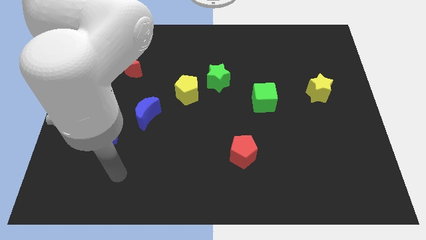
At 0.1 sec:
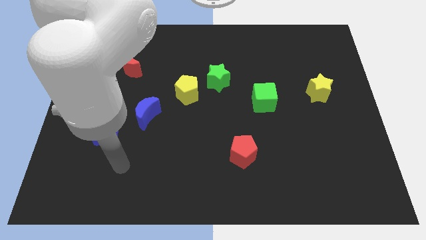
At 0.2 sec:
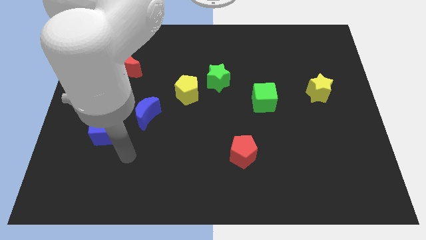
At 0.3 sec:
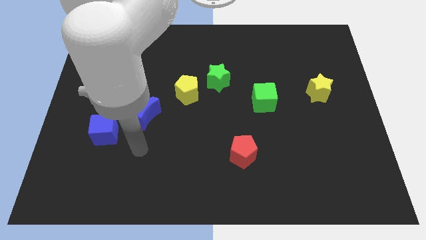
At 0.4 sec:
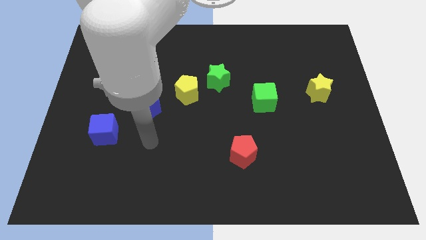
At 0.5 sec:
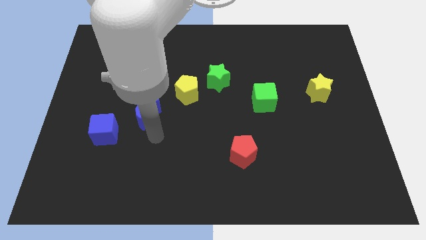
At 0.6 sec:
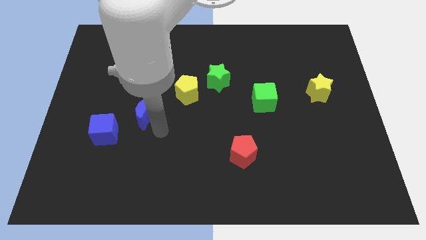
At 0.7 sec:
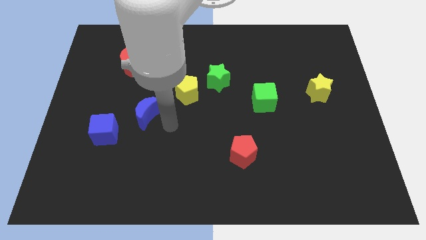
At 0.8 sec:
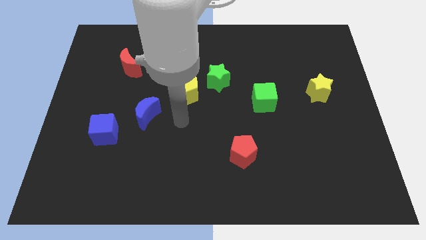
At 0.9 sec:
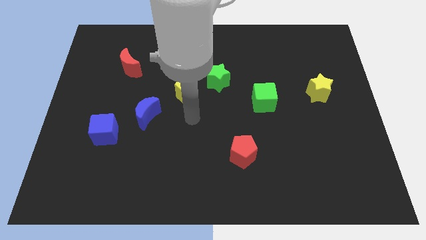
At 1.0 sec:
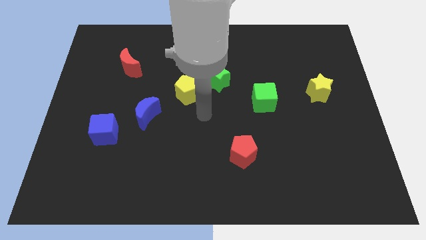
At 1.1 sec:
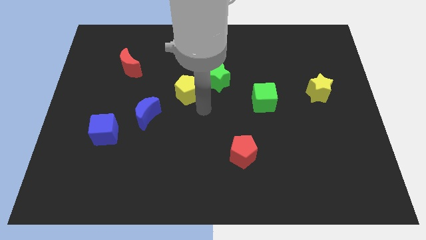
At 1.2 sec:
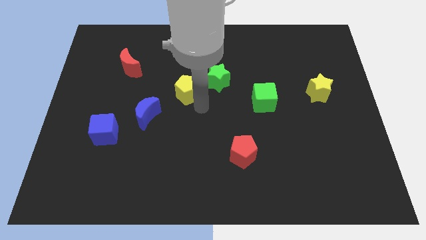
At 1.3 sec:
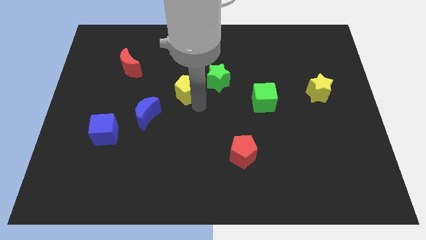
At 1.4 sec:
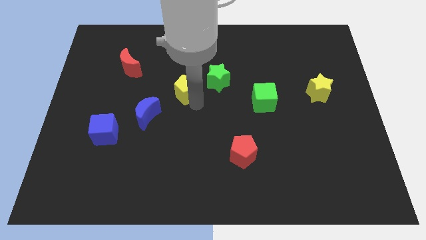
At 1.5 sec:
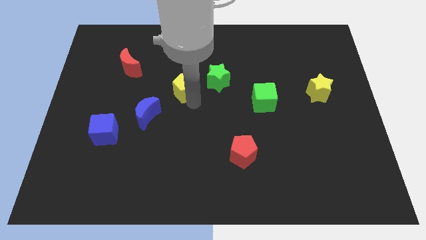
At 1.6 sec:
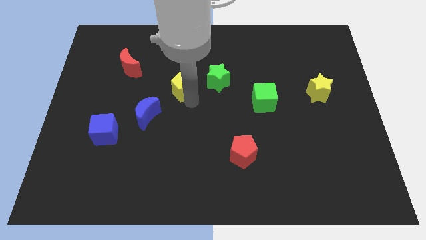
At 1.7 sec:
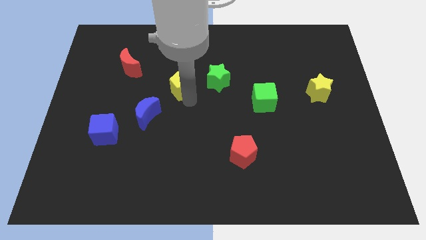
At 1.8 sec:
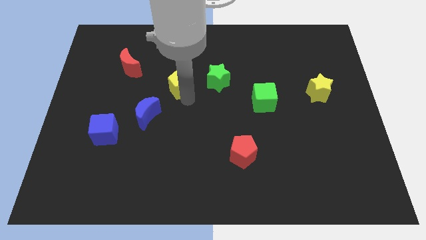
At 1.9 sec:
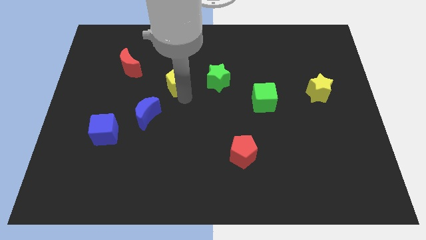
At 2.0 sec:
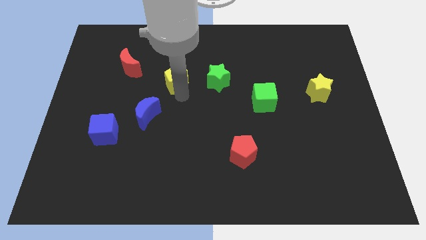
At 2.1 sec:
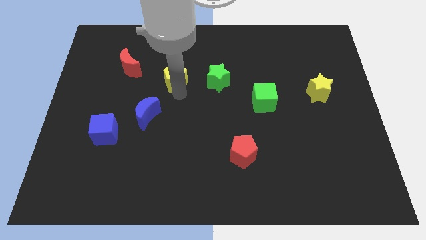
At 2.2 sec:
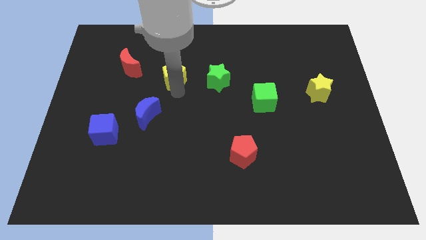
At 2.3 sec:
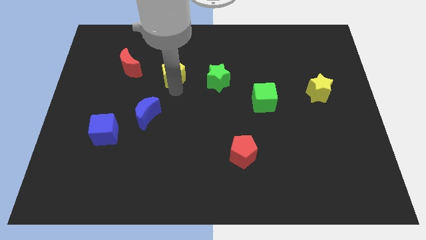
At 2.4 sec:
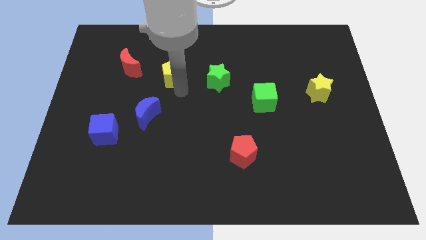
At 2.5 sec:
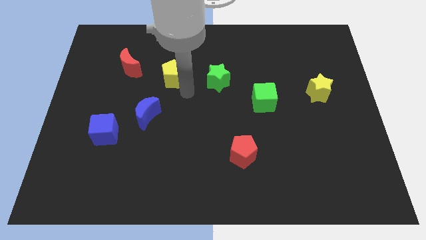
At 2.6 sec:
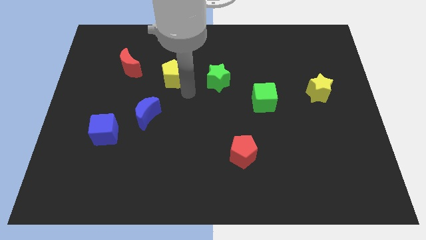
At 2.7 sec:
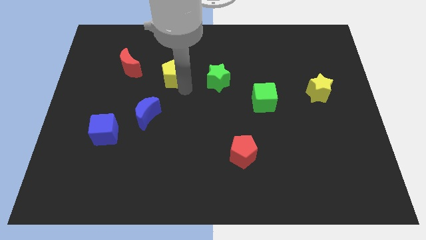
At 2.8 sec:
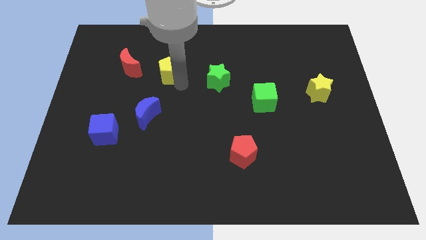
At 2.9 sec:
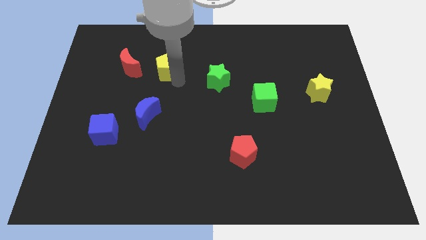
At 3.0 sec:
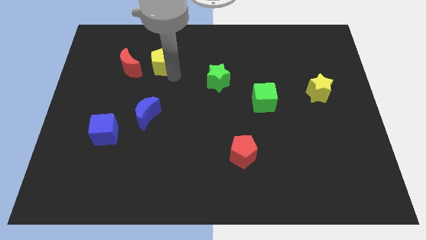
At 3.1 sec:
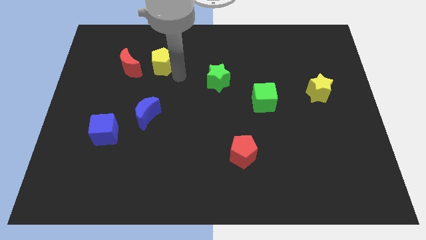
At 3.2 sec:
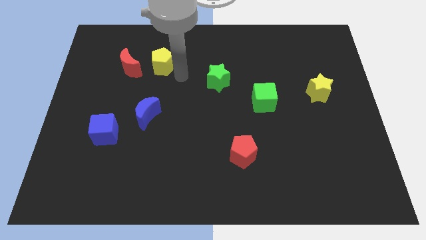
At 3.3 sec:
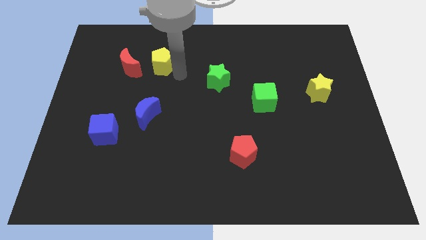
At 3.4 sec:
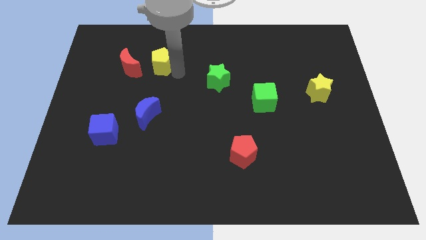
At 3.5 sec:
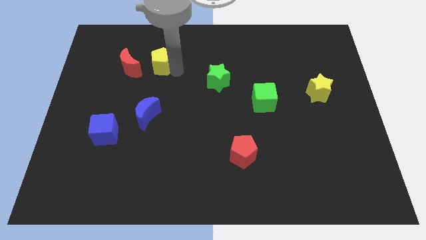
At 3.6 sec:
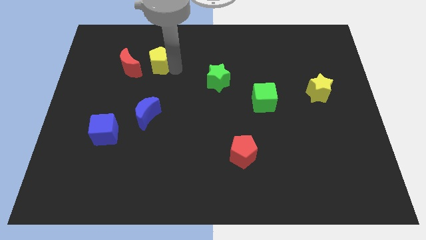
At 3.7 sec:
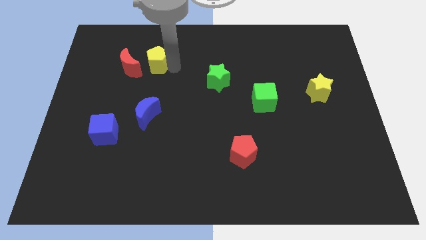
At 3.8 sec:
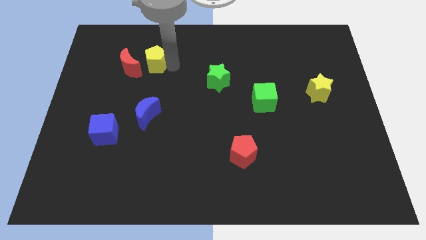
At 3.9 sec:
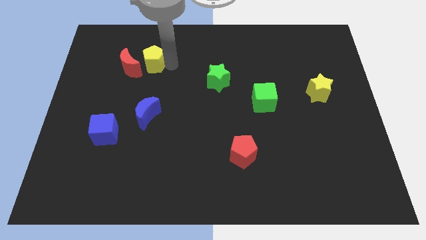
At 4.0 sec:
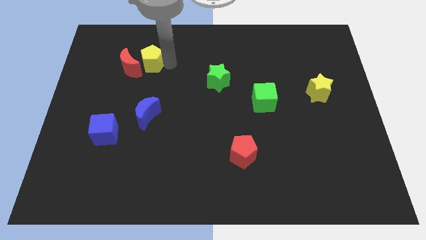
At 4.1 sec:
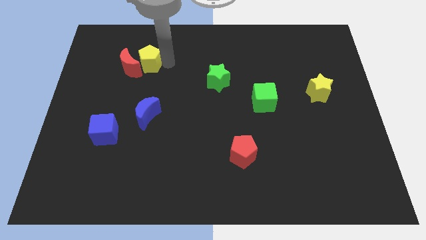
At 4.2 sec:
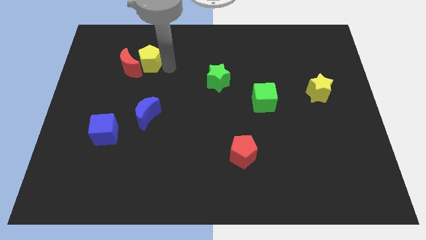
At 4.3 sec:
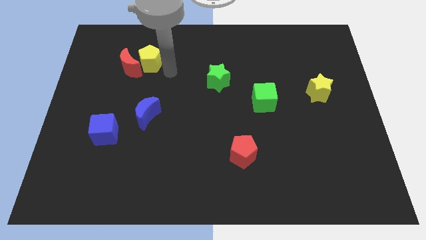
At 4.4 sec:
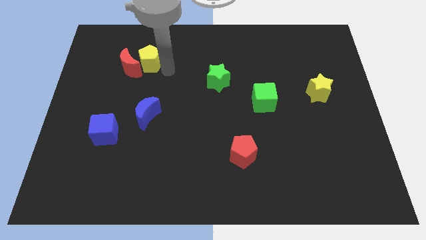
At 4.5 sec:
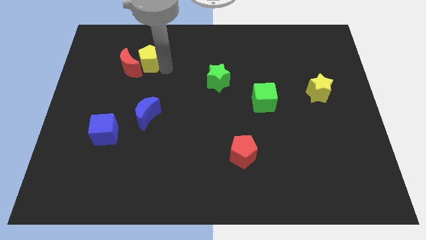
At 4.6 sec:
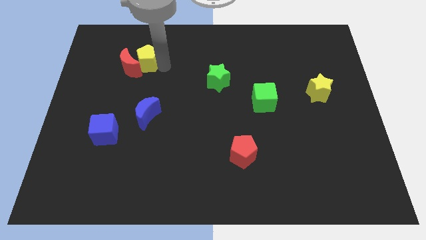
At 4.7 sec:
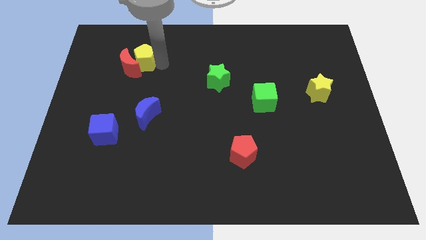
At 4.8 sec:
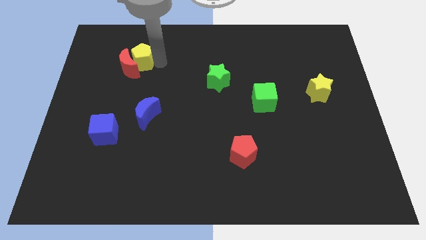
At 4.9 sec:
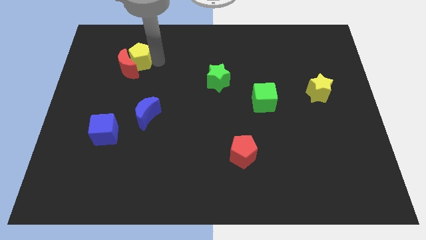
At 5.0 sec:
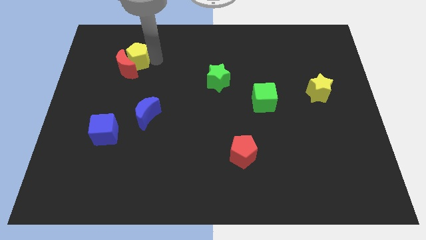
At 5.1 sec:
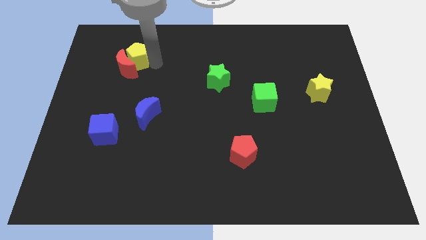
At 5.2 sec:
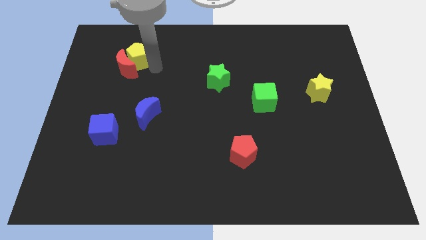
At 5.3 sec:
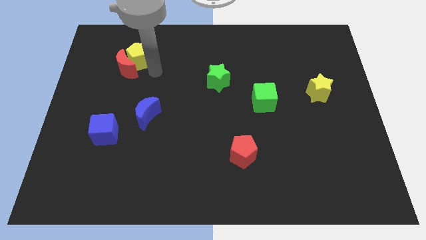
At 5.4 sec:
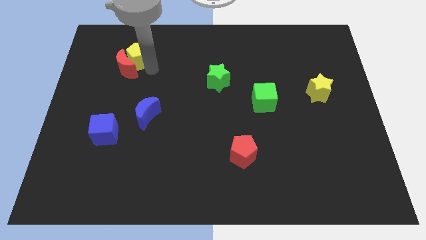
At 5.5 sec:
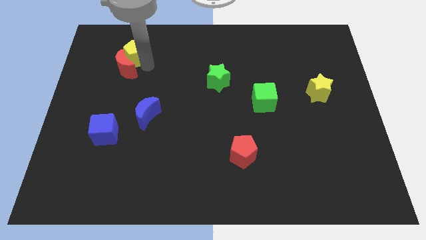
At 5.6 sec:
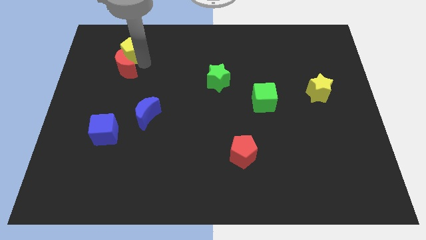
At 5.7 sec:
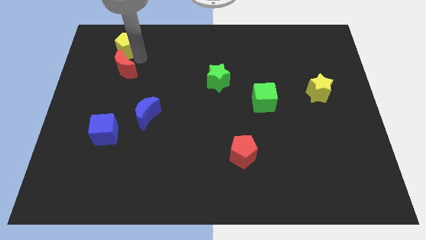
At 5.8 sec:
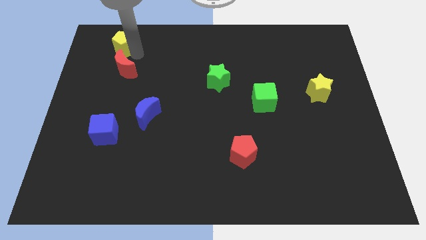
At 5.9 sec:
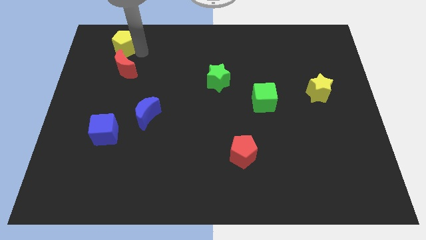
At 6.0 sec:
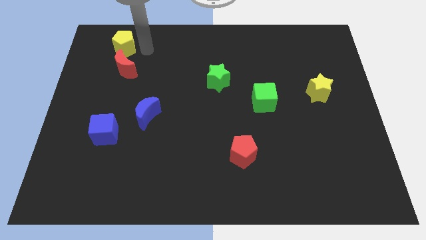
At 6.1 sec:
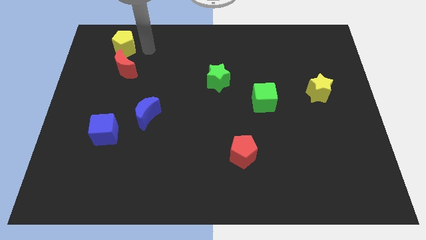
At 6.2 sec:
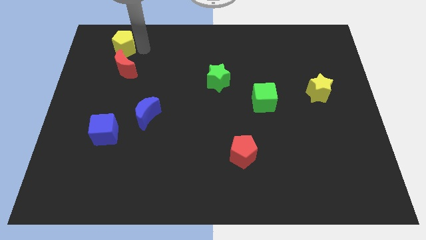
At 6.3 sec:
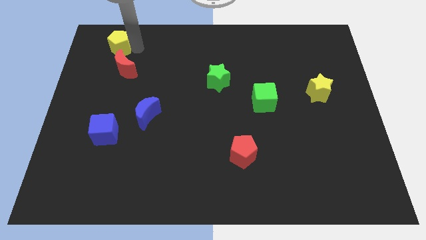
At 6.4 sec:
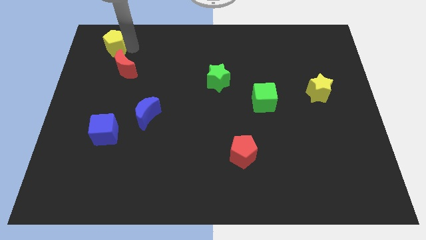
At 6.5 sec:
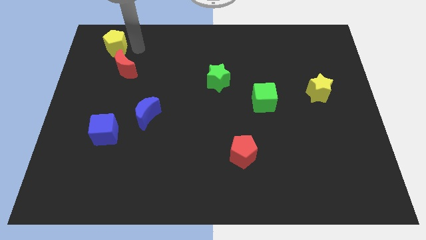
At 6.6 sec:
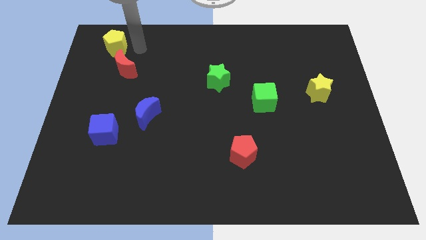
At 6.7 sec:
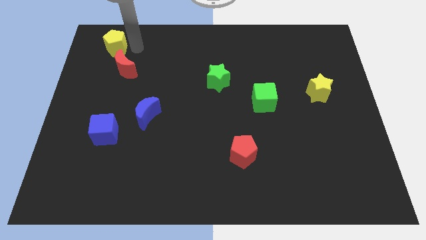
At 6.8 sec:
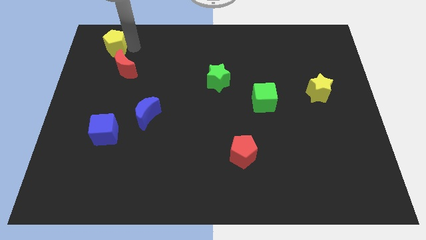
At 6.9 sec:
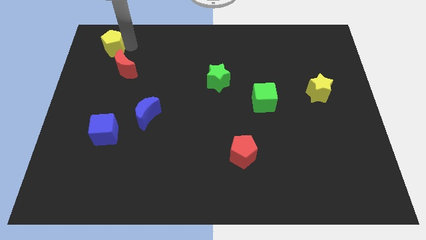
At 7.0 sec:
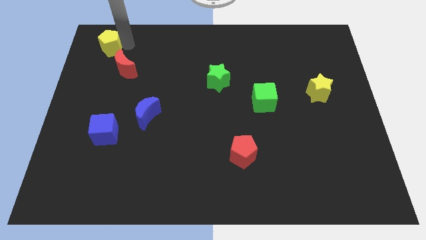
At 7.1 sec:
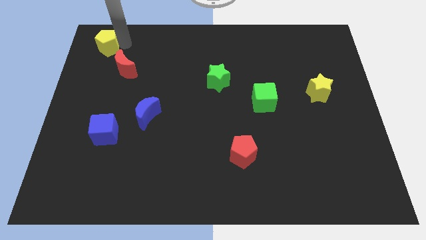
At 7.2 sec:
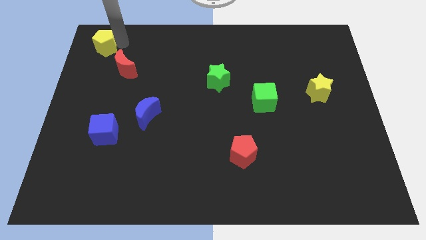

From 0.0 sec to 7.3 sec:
move the yellow pentagon to the top left of the board
